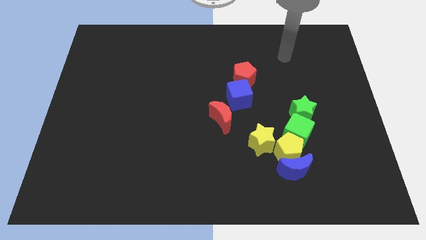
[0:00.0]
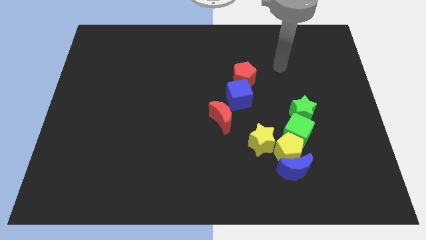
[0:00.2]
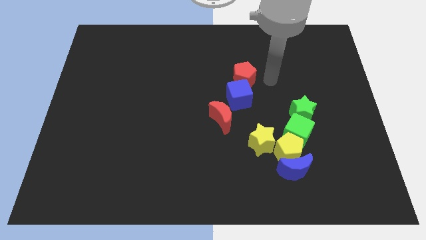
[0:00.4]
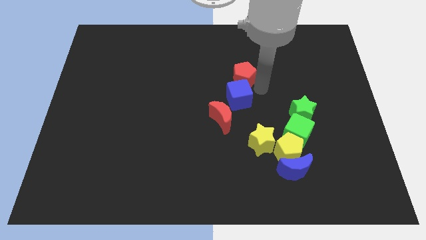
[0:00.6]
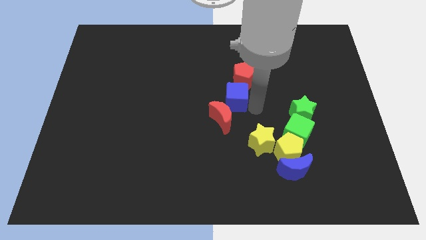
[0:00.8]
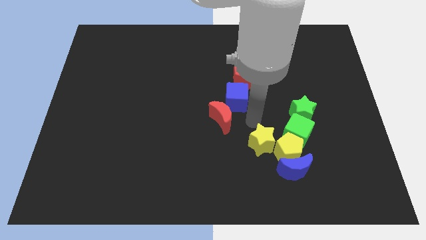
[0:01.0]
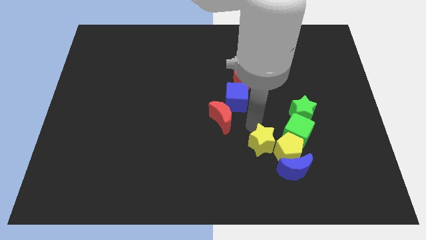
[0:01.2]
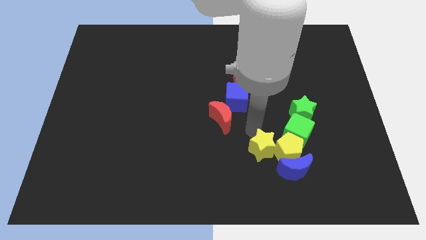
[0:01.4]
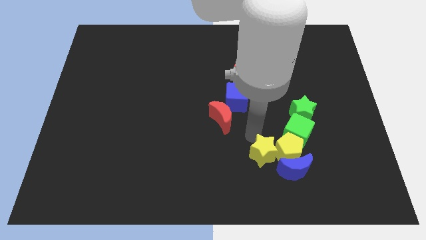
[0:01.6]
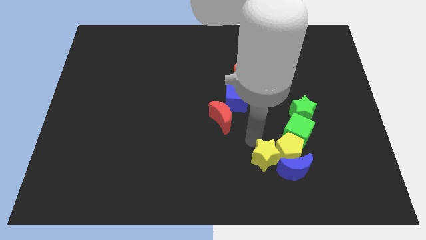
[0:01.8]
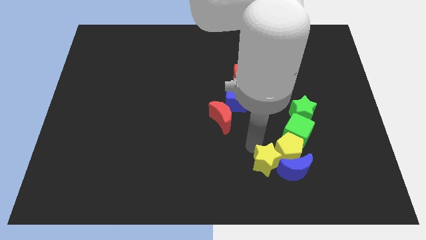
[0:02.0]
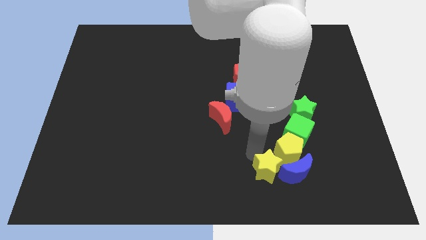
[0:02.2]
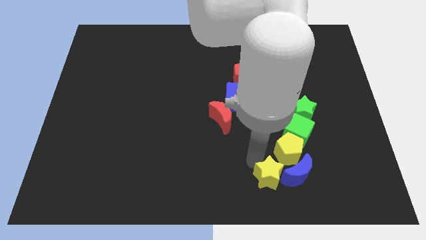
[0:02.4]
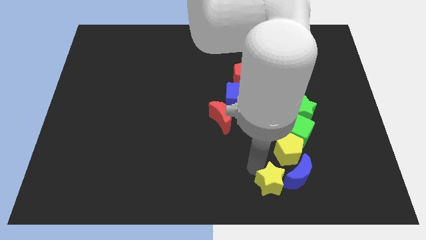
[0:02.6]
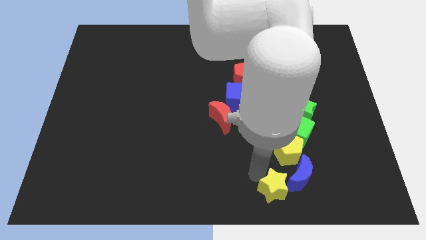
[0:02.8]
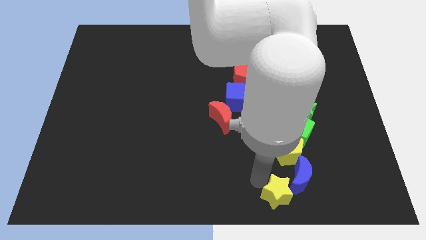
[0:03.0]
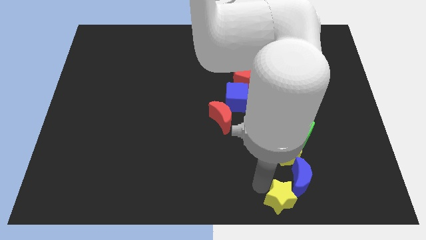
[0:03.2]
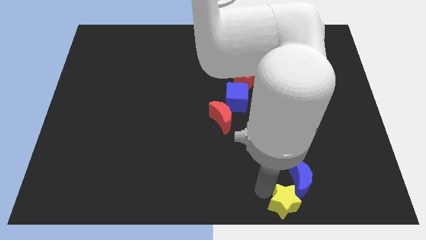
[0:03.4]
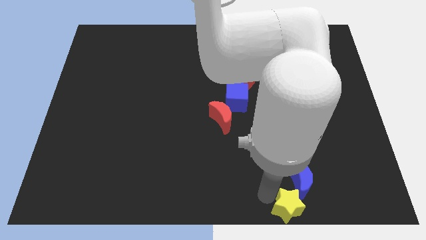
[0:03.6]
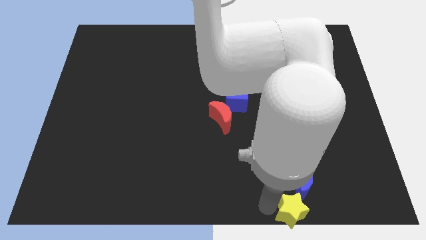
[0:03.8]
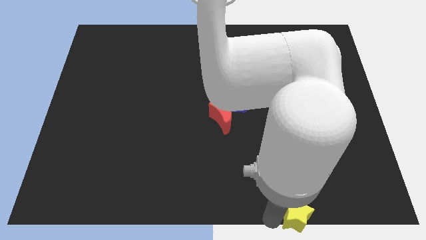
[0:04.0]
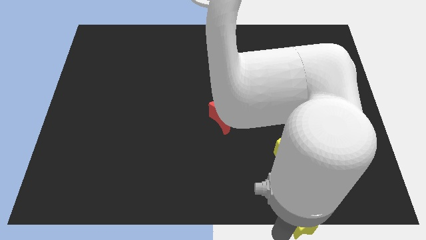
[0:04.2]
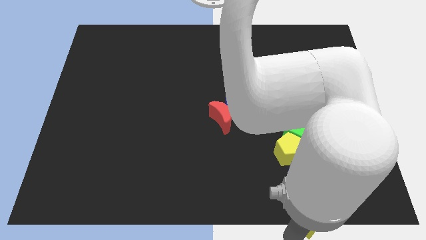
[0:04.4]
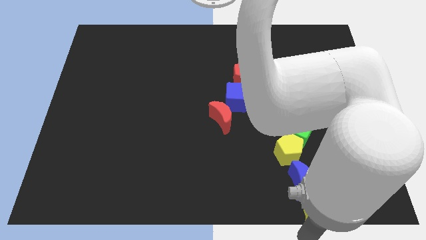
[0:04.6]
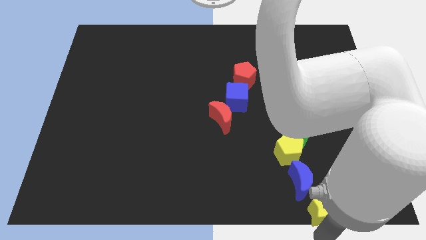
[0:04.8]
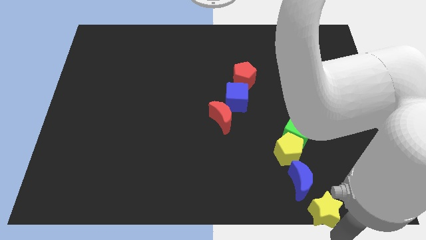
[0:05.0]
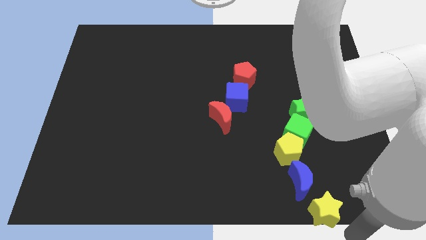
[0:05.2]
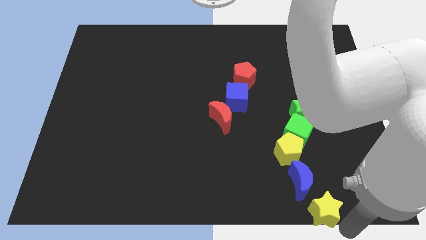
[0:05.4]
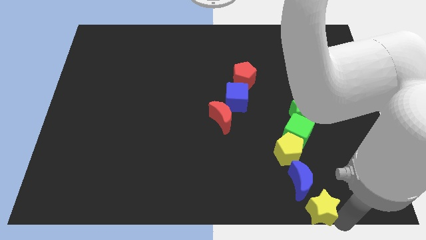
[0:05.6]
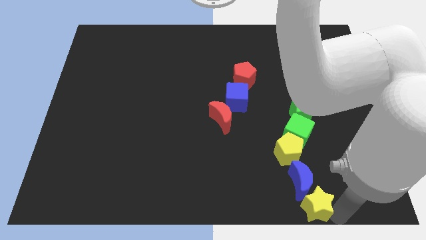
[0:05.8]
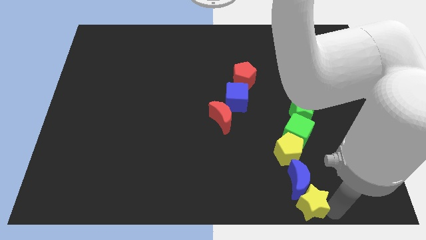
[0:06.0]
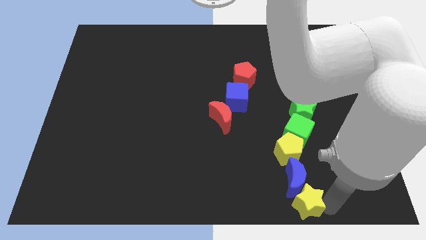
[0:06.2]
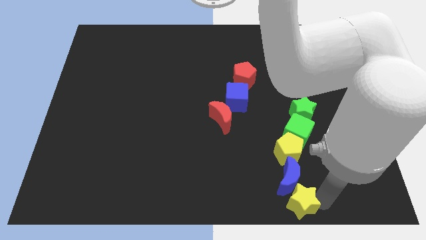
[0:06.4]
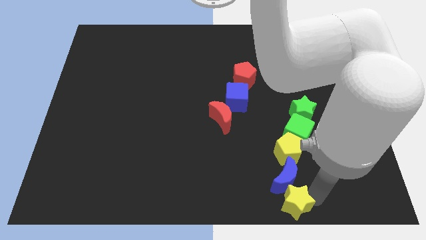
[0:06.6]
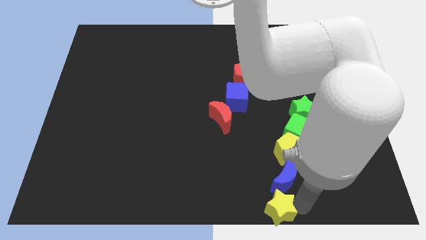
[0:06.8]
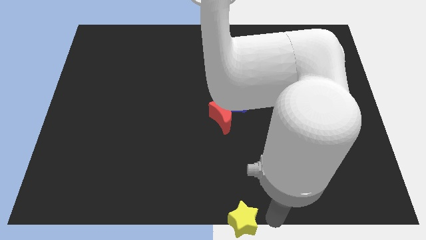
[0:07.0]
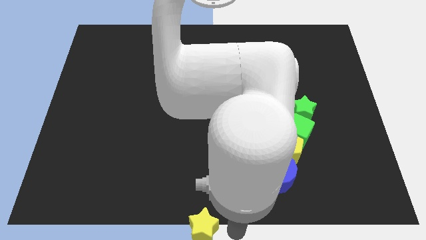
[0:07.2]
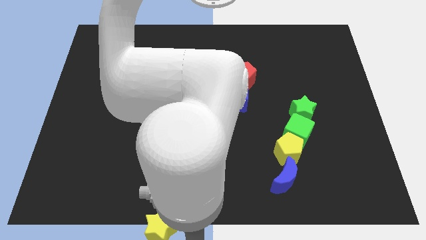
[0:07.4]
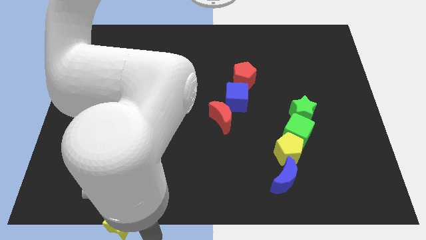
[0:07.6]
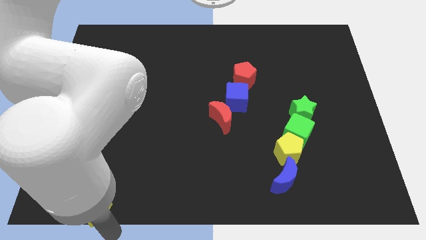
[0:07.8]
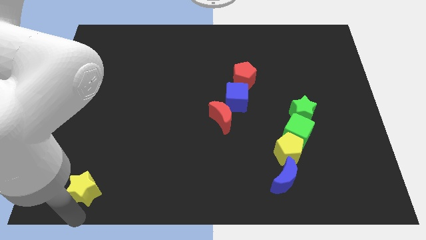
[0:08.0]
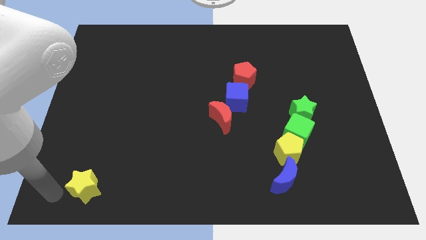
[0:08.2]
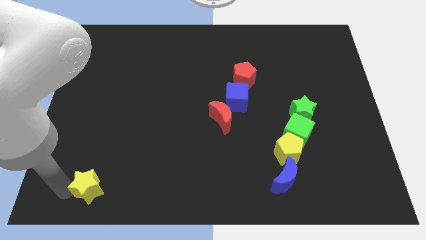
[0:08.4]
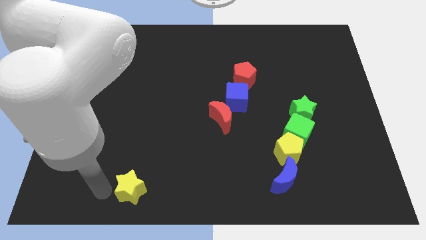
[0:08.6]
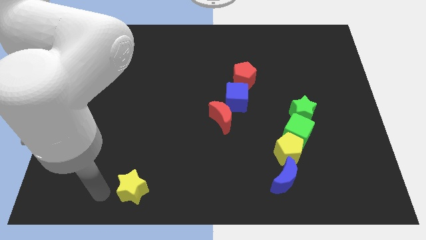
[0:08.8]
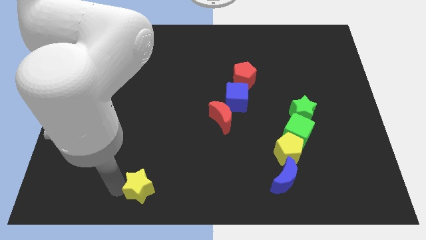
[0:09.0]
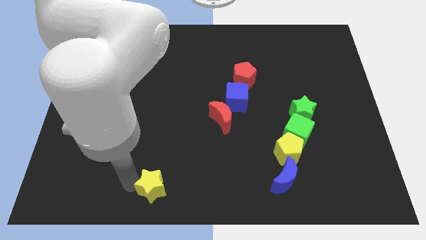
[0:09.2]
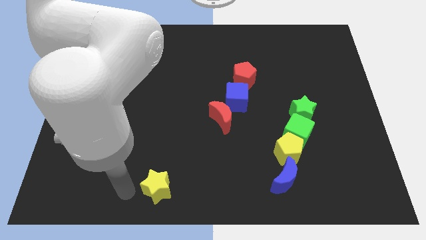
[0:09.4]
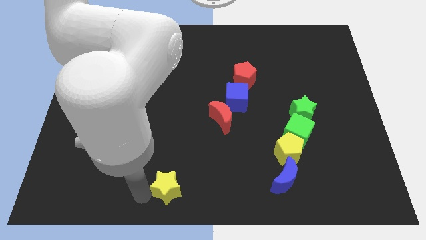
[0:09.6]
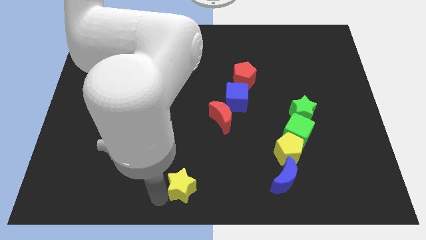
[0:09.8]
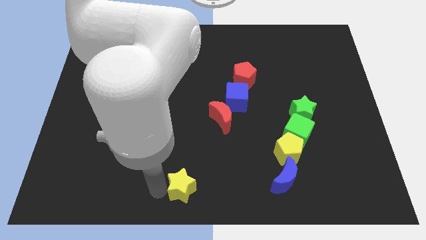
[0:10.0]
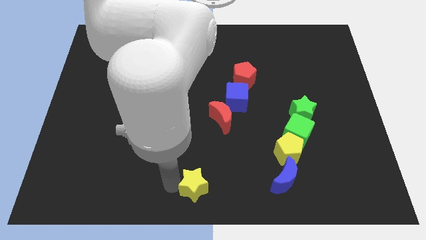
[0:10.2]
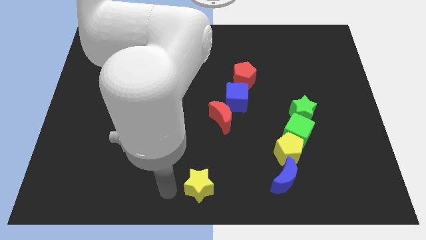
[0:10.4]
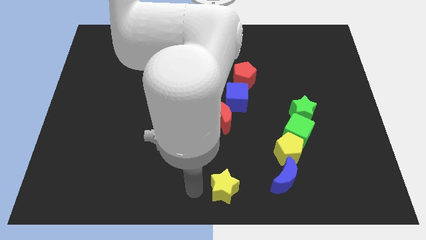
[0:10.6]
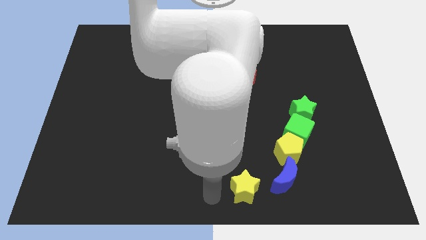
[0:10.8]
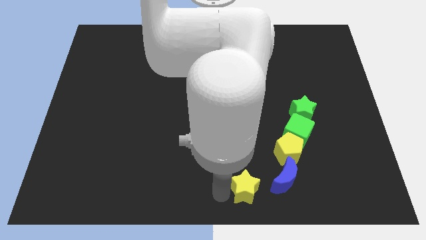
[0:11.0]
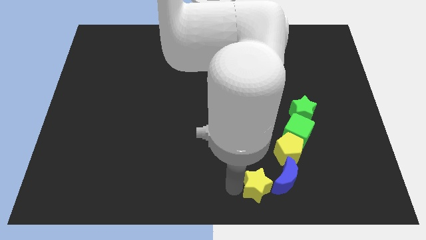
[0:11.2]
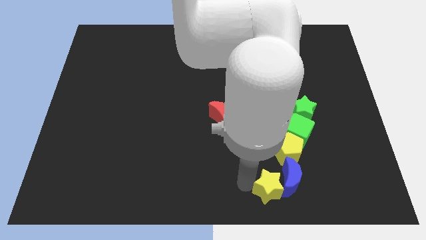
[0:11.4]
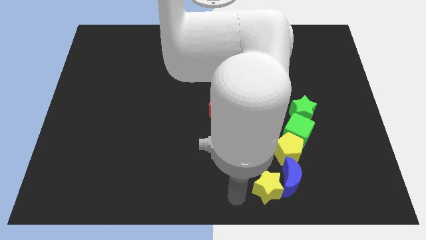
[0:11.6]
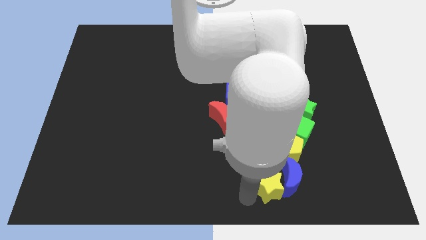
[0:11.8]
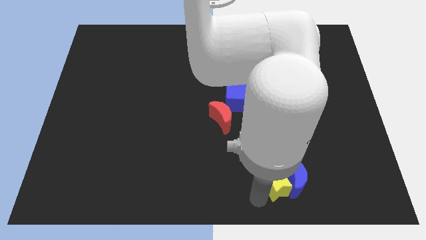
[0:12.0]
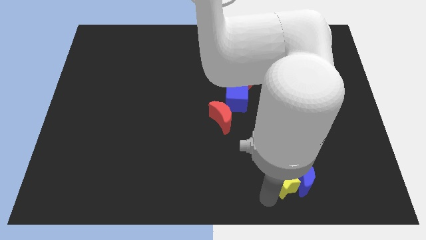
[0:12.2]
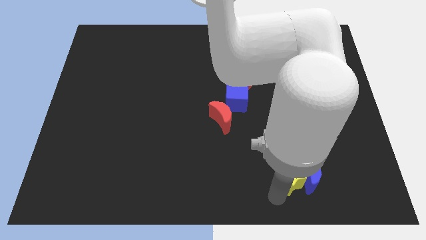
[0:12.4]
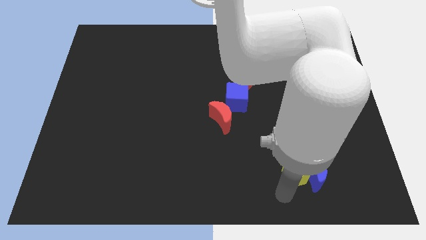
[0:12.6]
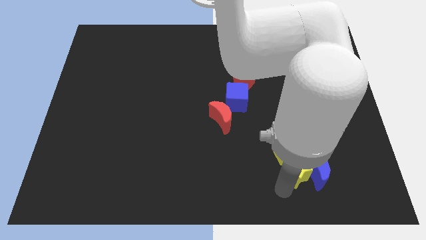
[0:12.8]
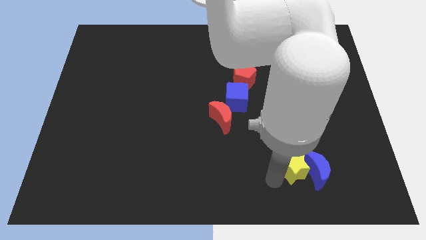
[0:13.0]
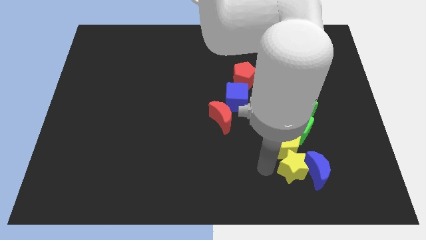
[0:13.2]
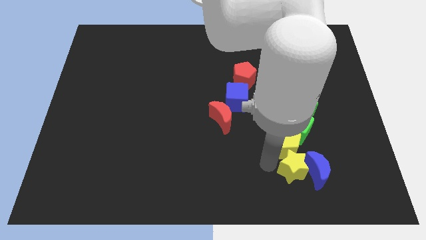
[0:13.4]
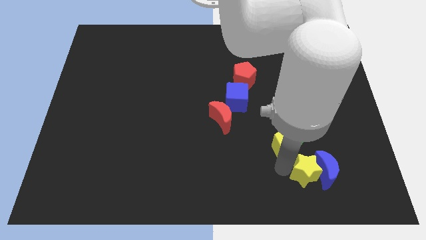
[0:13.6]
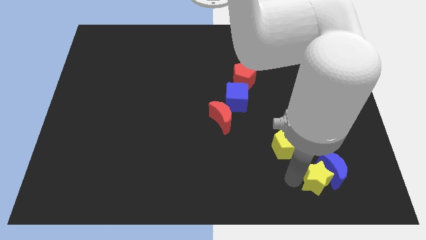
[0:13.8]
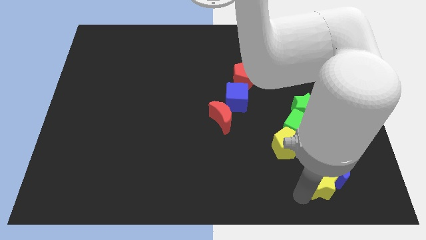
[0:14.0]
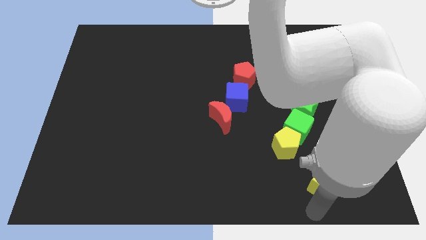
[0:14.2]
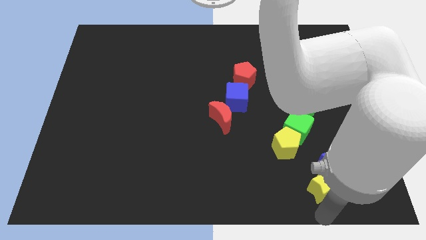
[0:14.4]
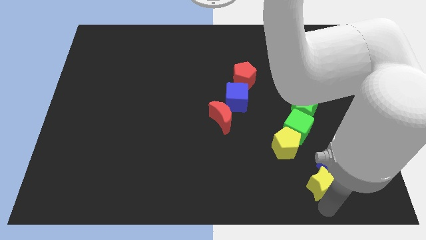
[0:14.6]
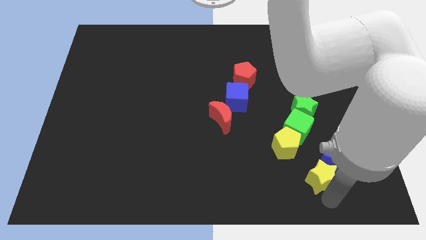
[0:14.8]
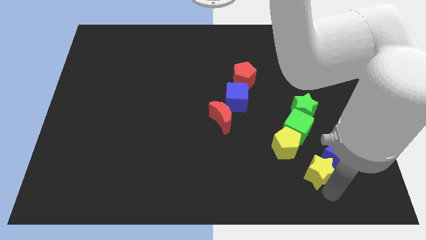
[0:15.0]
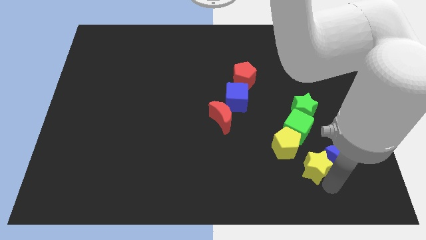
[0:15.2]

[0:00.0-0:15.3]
put the yellow star diagonally down and to the right of the green cube
